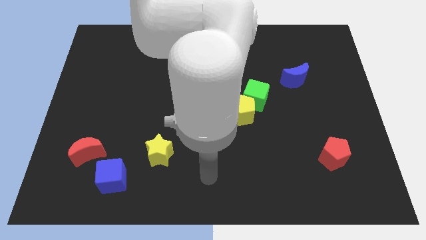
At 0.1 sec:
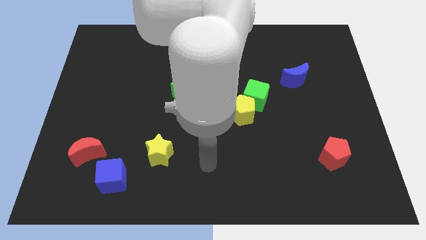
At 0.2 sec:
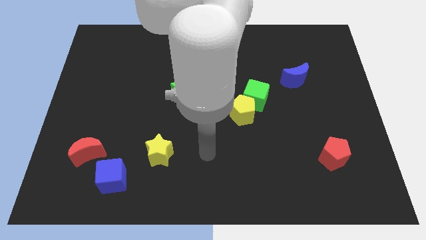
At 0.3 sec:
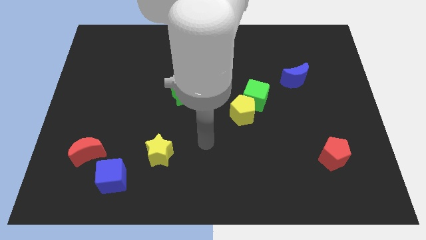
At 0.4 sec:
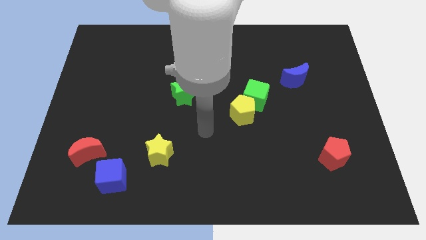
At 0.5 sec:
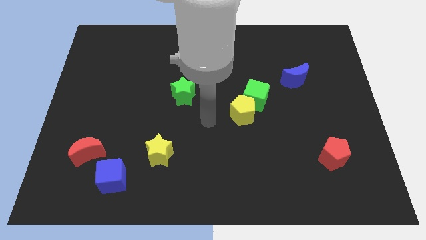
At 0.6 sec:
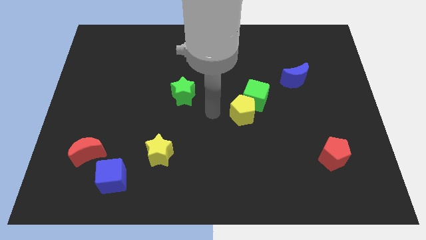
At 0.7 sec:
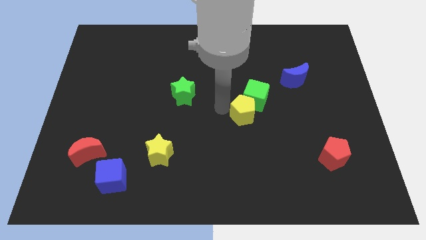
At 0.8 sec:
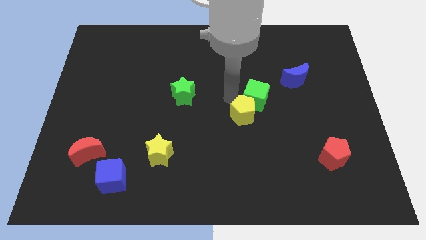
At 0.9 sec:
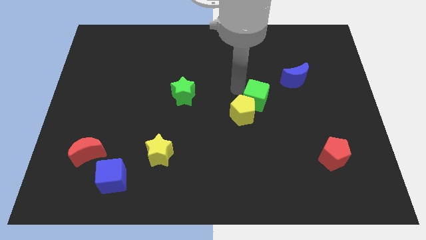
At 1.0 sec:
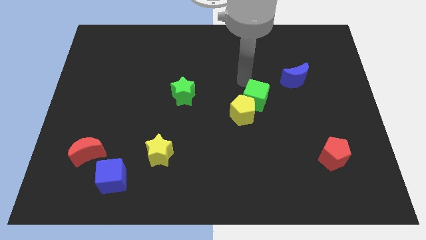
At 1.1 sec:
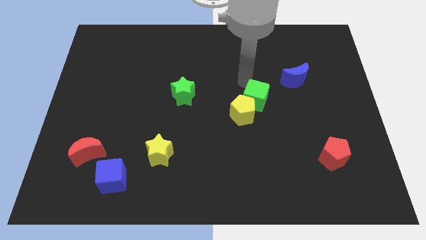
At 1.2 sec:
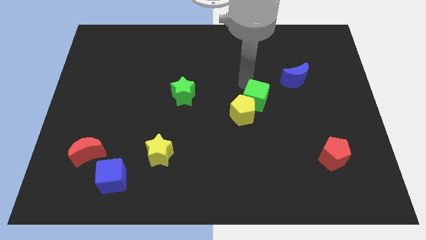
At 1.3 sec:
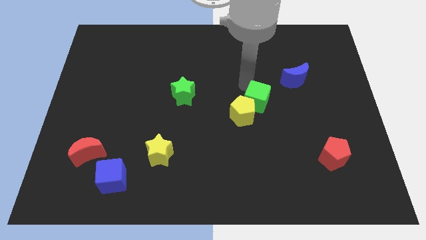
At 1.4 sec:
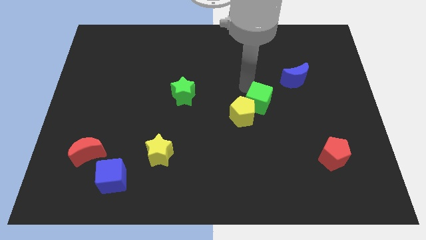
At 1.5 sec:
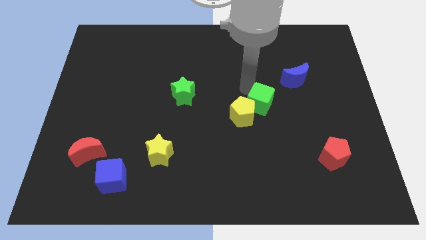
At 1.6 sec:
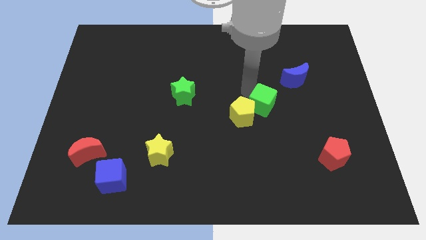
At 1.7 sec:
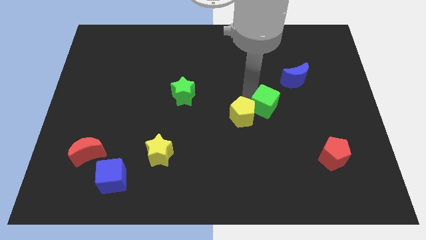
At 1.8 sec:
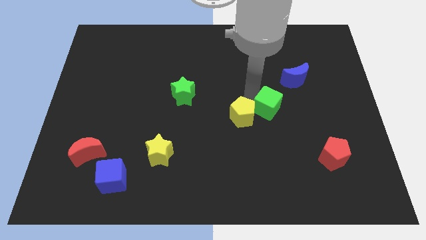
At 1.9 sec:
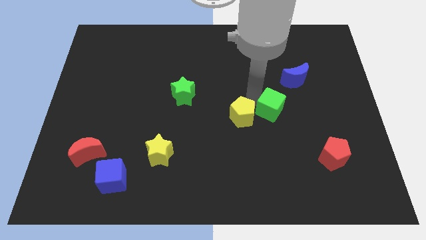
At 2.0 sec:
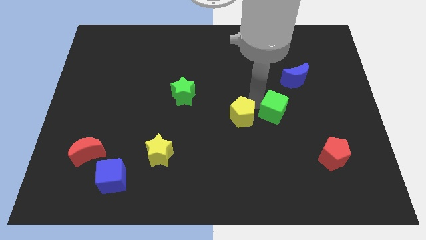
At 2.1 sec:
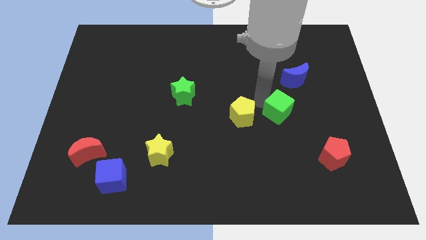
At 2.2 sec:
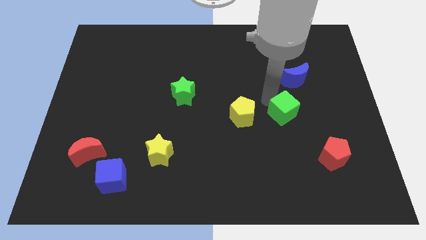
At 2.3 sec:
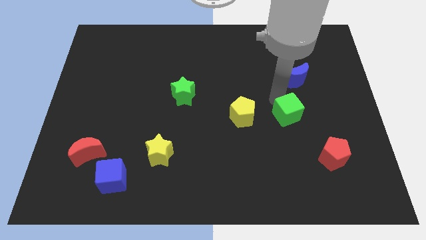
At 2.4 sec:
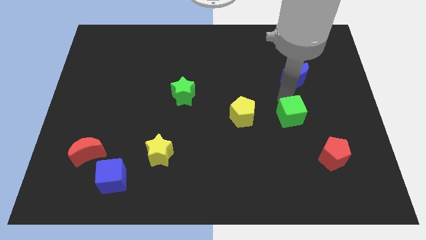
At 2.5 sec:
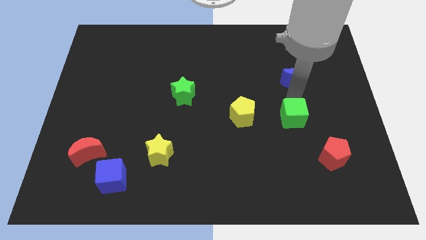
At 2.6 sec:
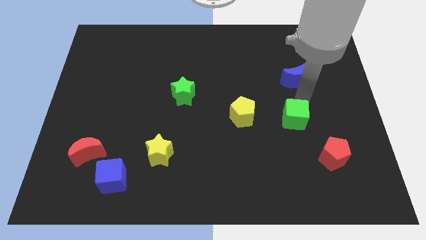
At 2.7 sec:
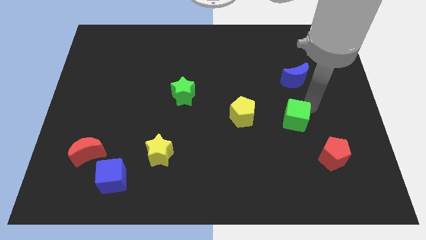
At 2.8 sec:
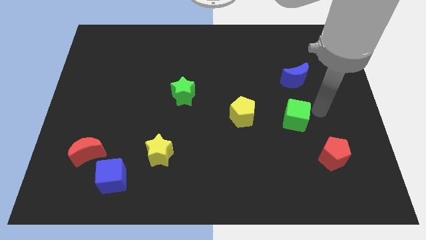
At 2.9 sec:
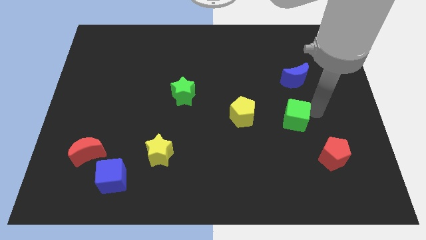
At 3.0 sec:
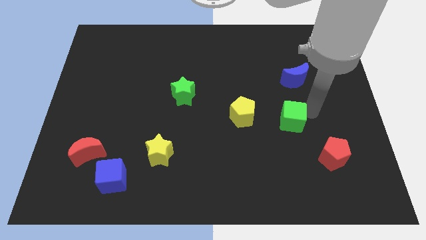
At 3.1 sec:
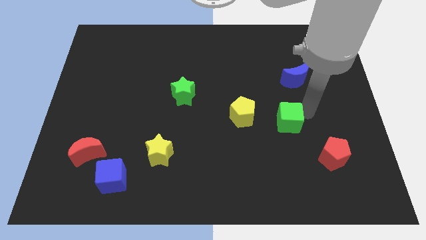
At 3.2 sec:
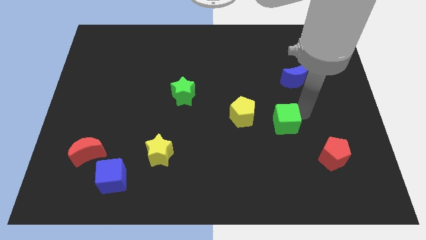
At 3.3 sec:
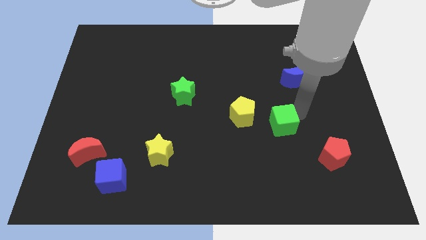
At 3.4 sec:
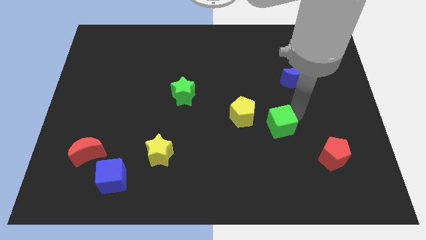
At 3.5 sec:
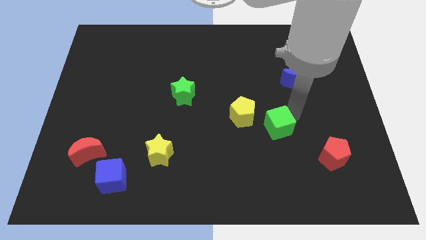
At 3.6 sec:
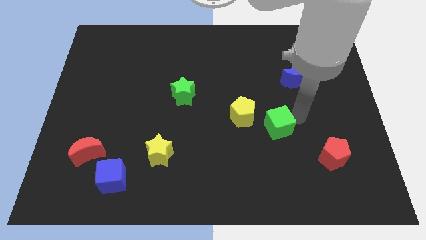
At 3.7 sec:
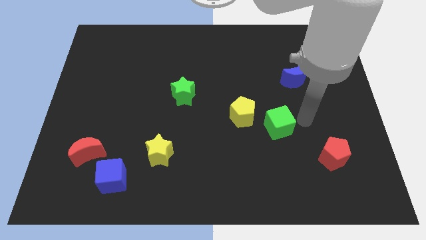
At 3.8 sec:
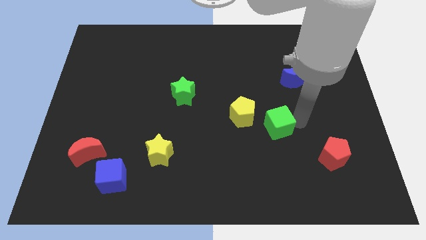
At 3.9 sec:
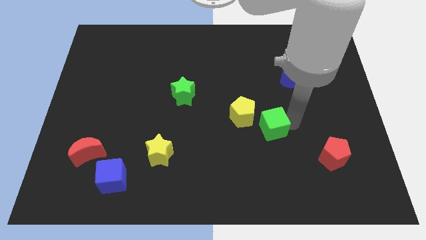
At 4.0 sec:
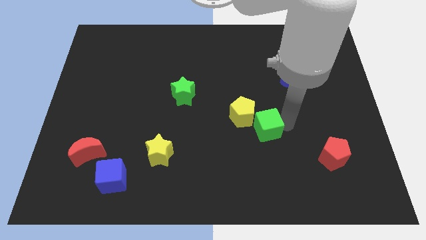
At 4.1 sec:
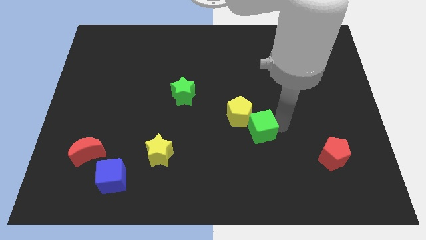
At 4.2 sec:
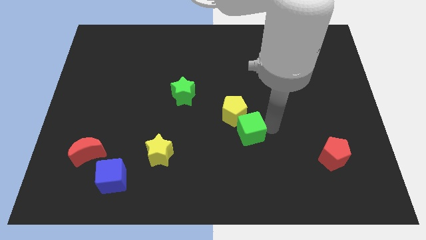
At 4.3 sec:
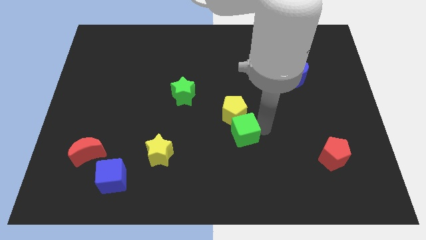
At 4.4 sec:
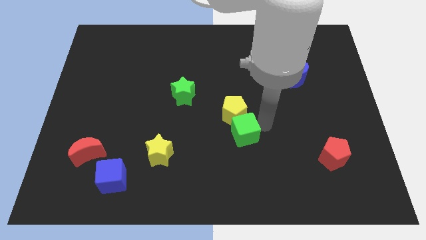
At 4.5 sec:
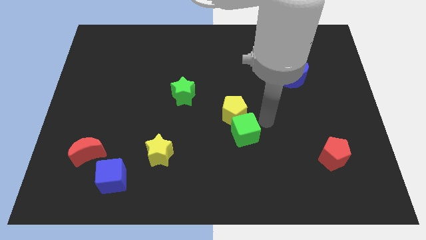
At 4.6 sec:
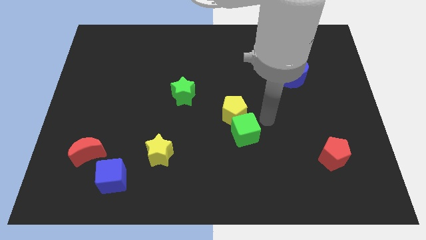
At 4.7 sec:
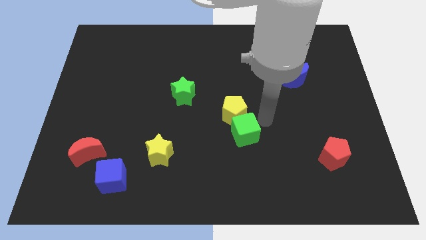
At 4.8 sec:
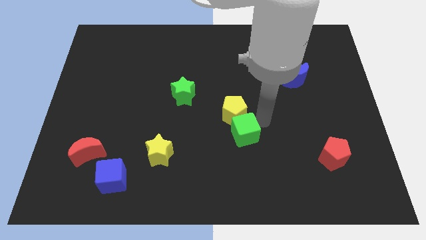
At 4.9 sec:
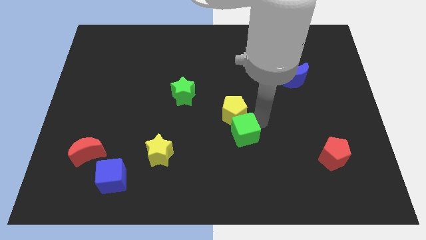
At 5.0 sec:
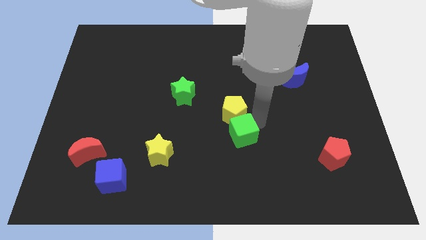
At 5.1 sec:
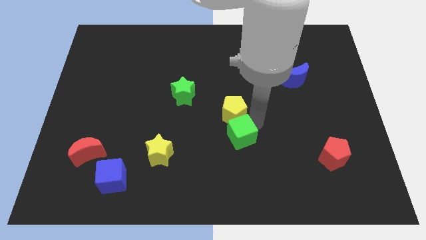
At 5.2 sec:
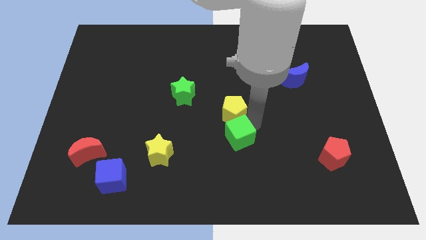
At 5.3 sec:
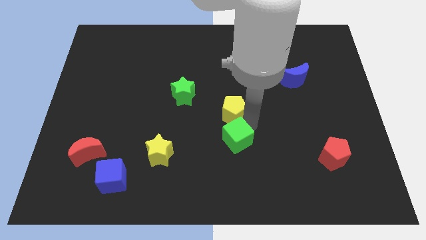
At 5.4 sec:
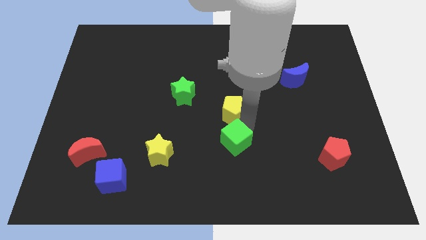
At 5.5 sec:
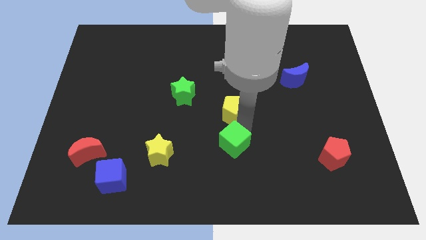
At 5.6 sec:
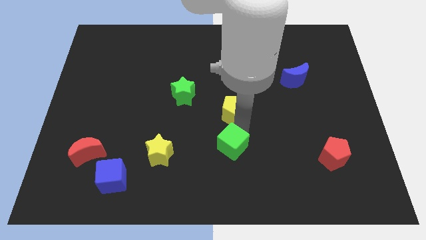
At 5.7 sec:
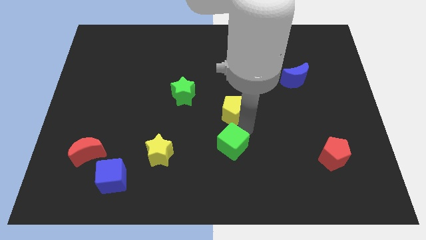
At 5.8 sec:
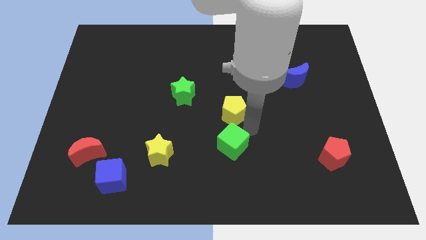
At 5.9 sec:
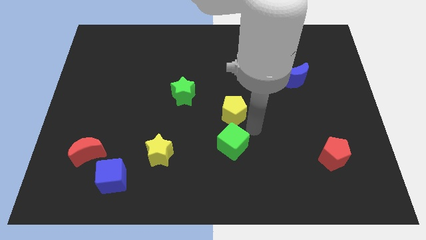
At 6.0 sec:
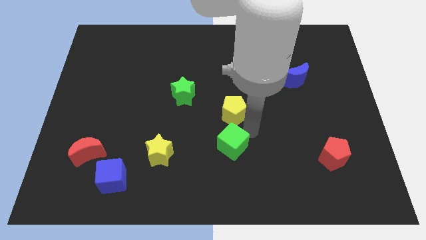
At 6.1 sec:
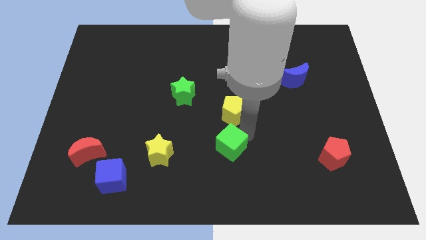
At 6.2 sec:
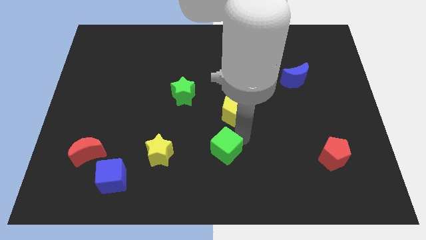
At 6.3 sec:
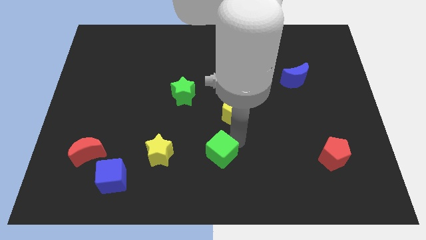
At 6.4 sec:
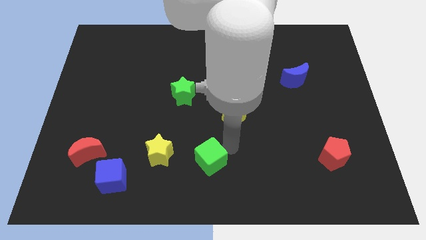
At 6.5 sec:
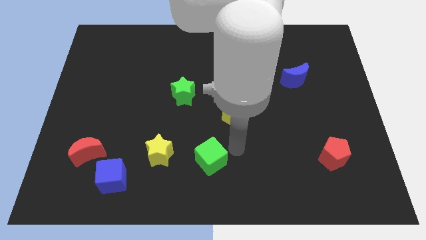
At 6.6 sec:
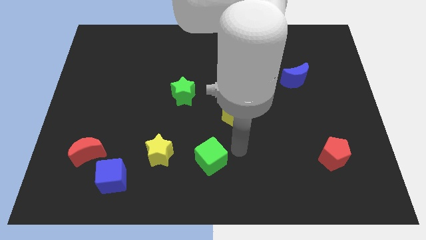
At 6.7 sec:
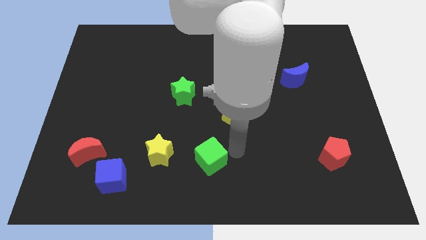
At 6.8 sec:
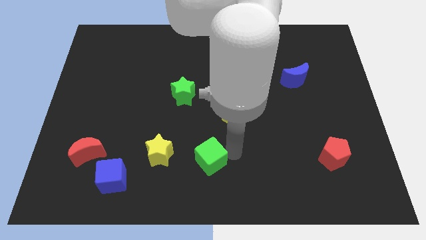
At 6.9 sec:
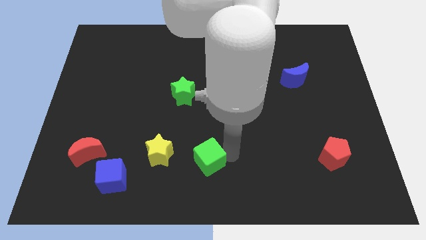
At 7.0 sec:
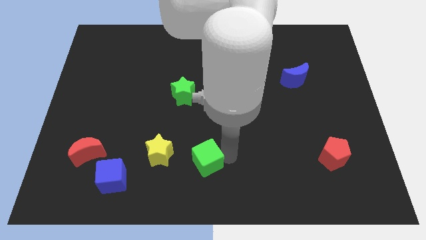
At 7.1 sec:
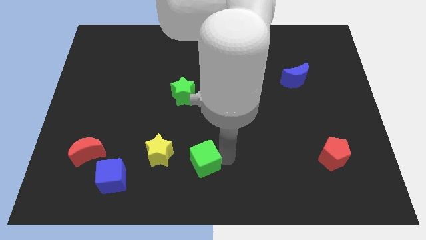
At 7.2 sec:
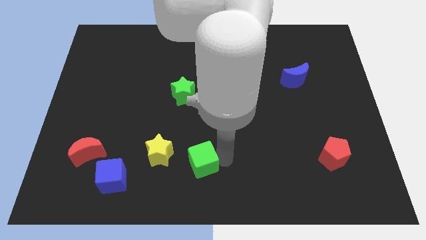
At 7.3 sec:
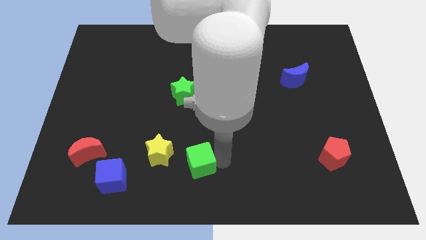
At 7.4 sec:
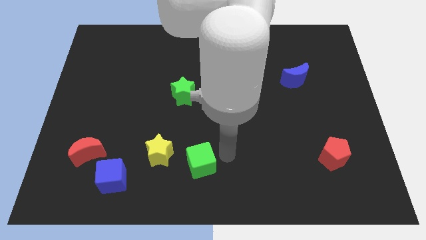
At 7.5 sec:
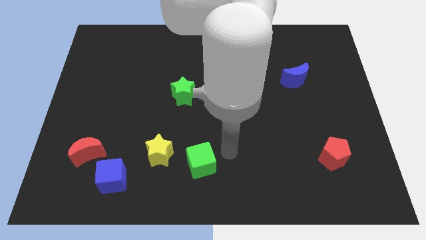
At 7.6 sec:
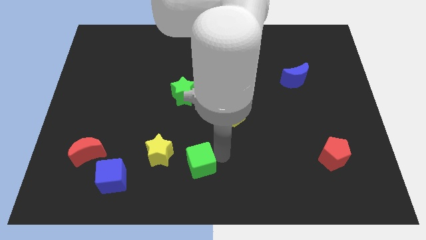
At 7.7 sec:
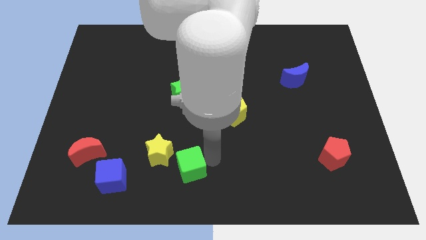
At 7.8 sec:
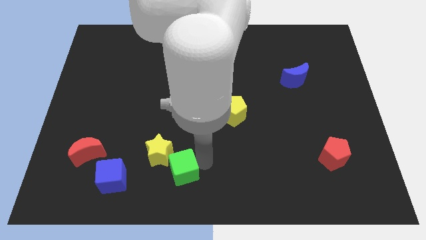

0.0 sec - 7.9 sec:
slide the green cube to the right side of the blue cube
